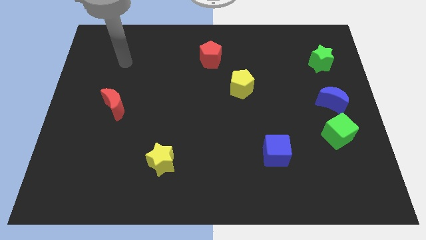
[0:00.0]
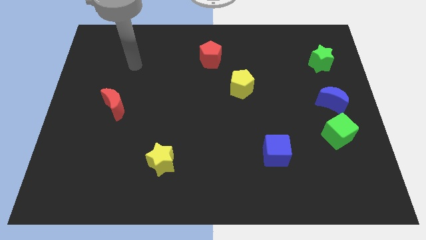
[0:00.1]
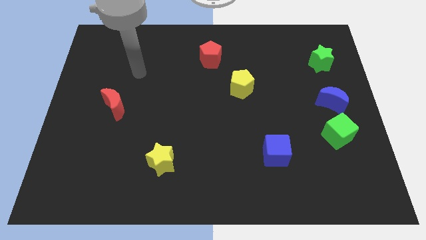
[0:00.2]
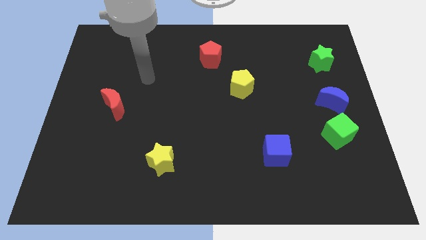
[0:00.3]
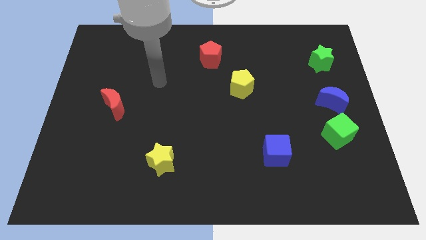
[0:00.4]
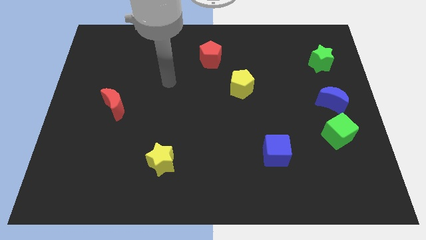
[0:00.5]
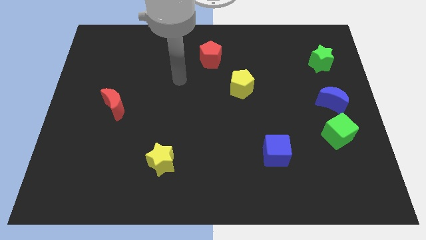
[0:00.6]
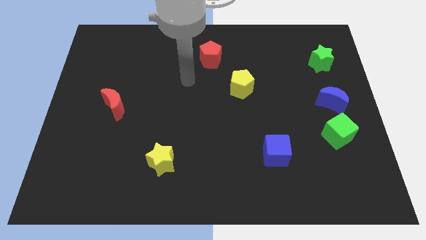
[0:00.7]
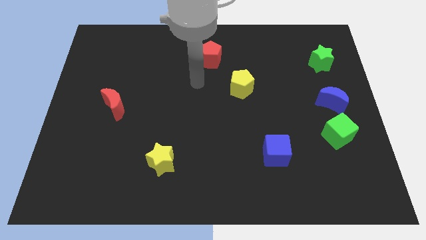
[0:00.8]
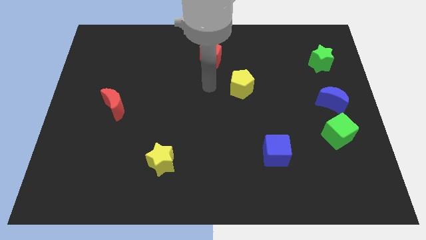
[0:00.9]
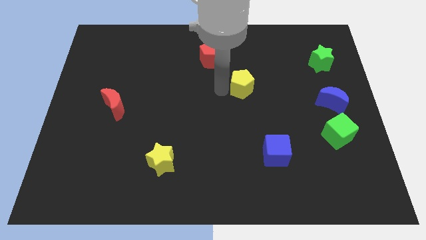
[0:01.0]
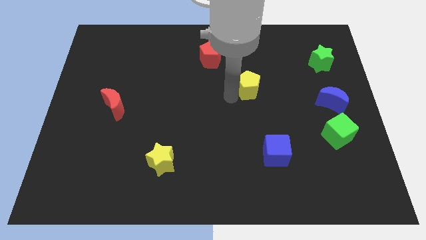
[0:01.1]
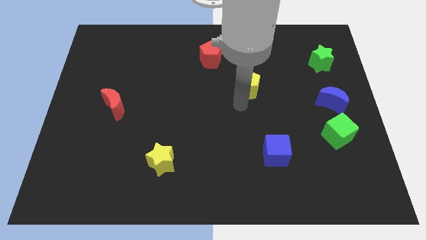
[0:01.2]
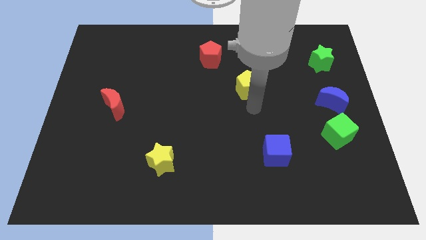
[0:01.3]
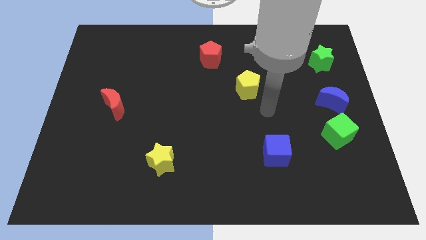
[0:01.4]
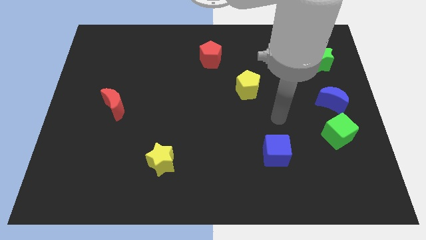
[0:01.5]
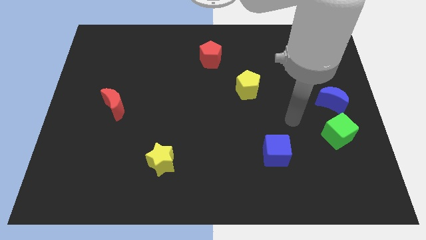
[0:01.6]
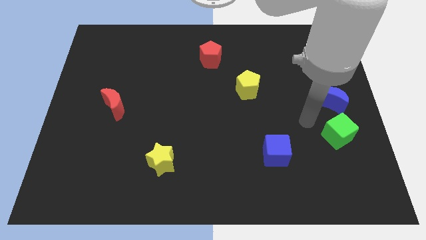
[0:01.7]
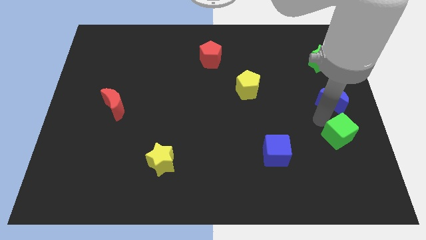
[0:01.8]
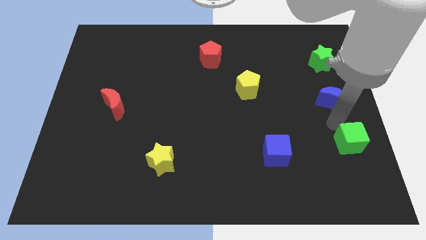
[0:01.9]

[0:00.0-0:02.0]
separate the blue moon from the green cube

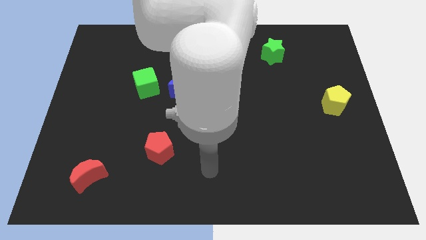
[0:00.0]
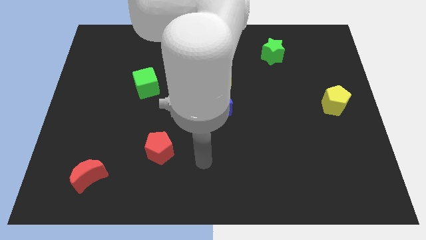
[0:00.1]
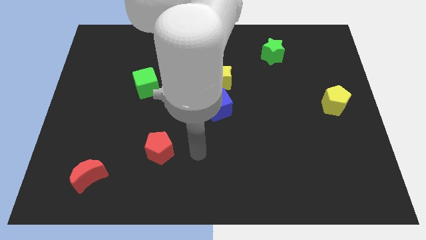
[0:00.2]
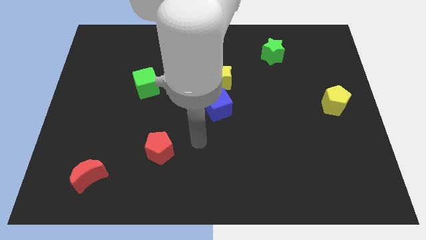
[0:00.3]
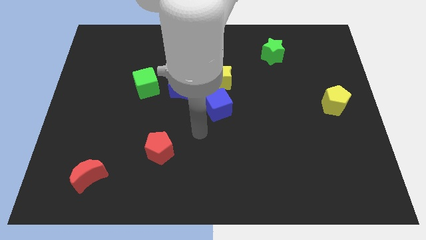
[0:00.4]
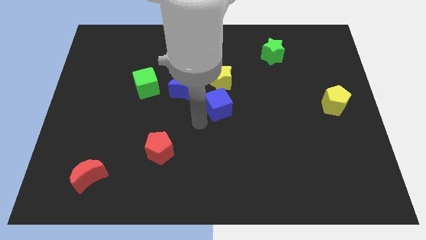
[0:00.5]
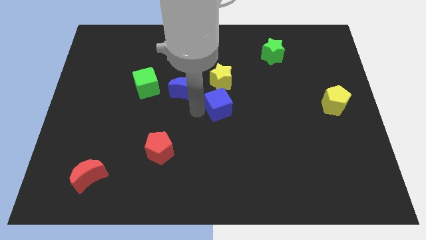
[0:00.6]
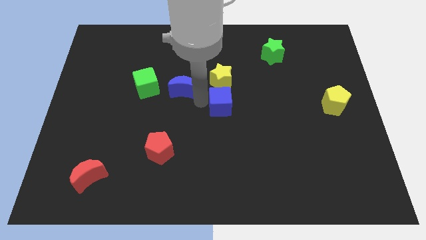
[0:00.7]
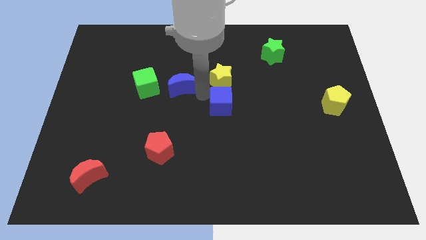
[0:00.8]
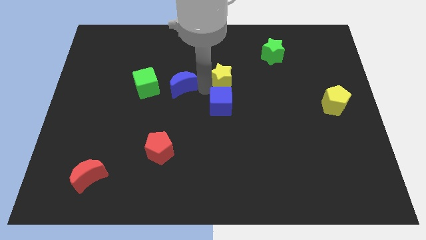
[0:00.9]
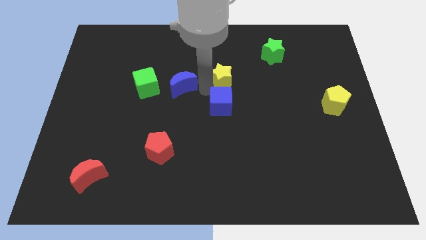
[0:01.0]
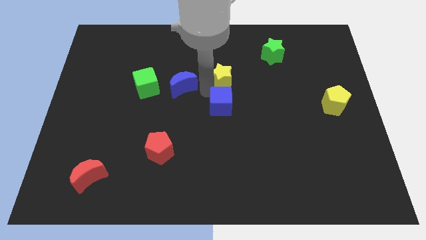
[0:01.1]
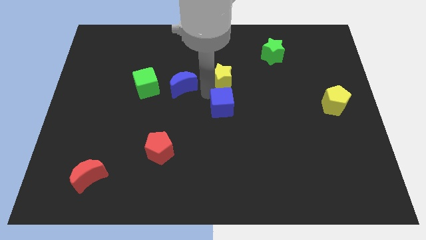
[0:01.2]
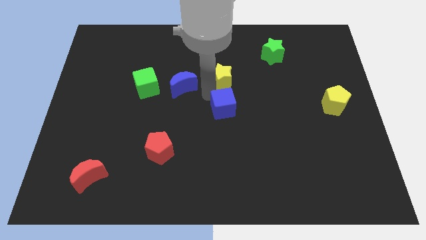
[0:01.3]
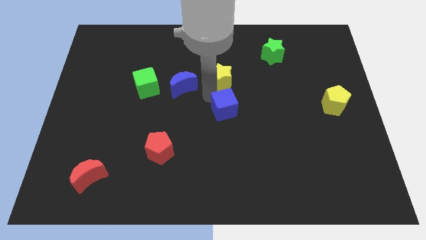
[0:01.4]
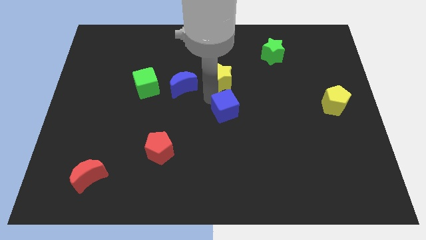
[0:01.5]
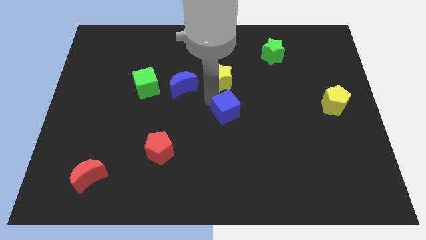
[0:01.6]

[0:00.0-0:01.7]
separate the blue cube from the yellow star and blue moon

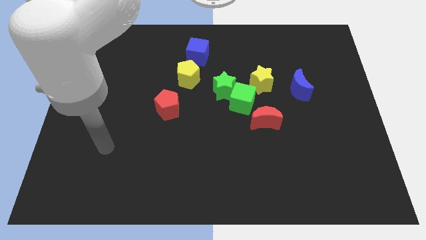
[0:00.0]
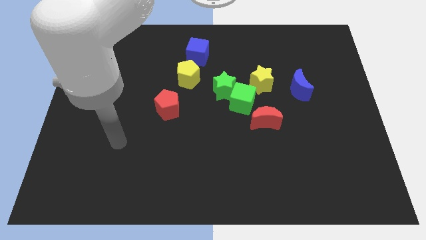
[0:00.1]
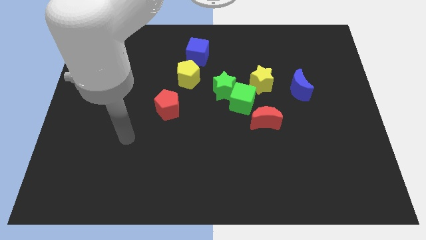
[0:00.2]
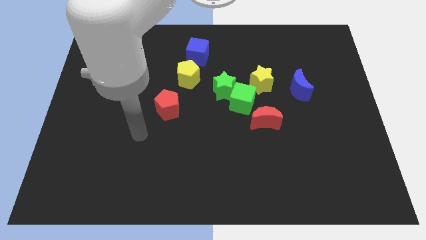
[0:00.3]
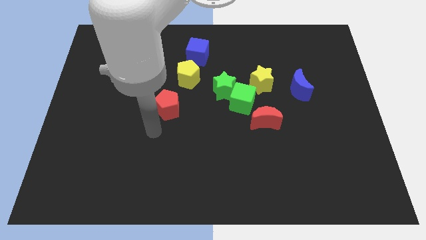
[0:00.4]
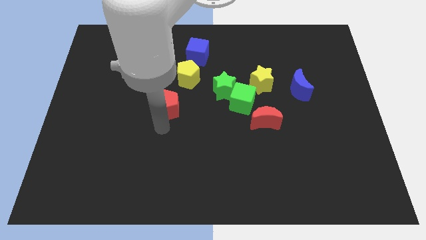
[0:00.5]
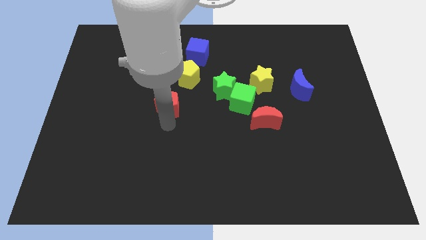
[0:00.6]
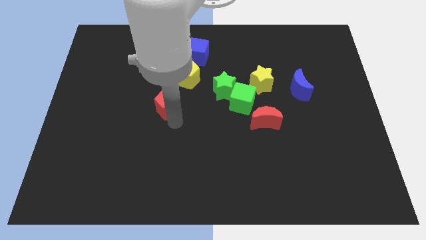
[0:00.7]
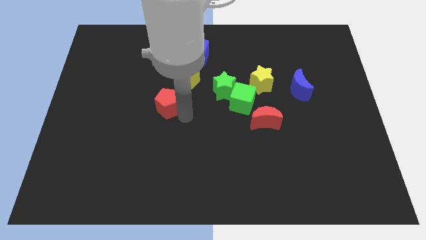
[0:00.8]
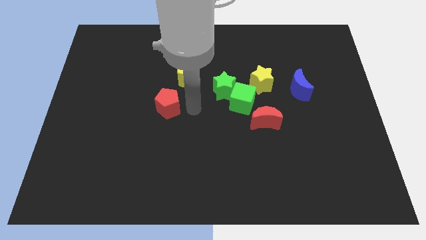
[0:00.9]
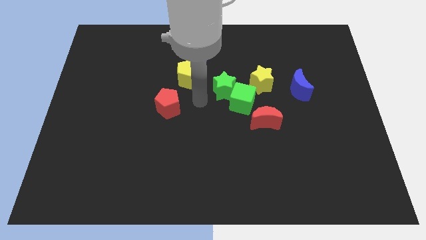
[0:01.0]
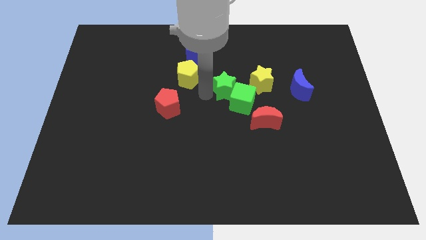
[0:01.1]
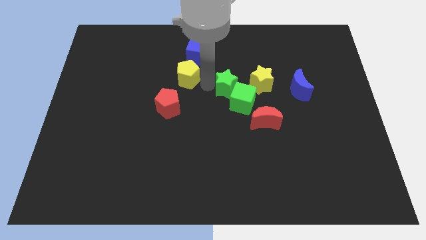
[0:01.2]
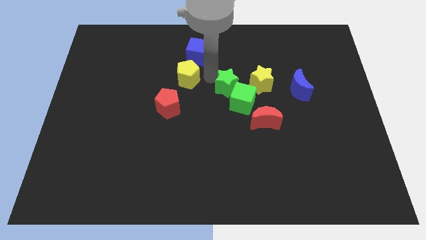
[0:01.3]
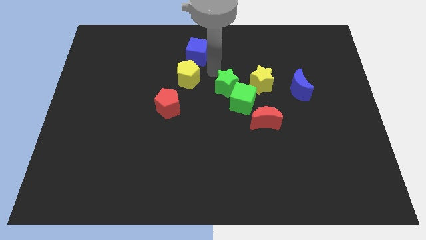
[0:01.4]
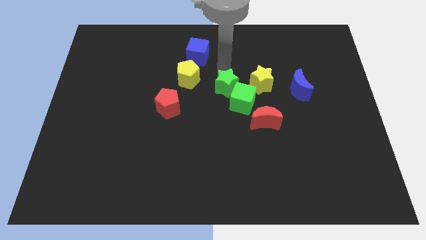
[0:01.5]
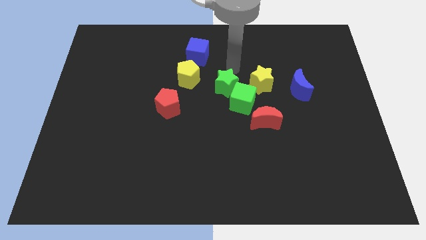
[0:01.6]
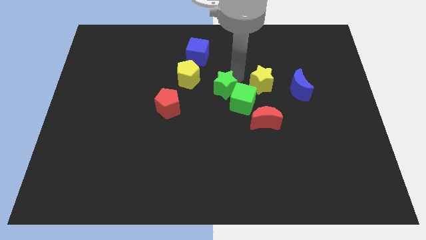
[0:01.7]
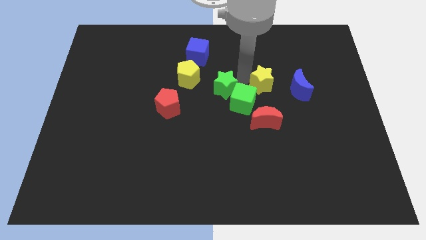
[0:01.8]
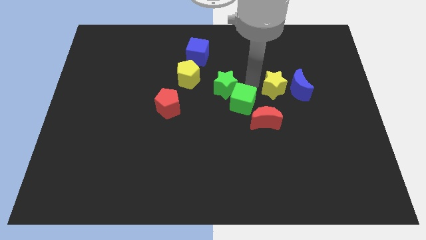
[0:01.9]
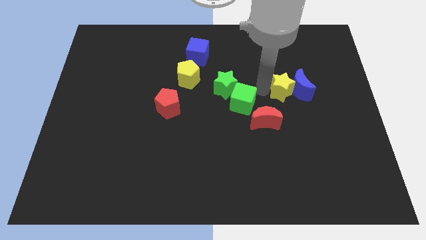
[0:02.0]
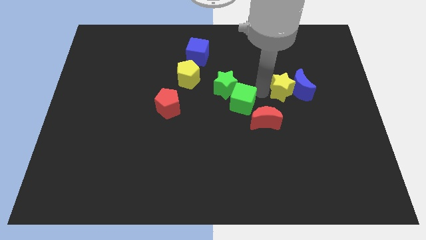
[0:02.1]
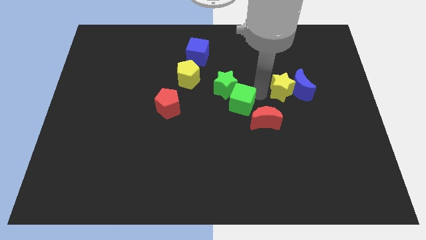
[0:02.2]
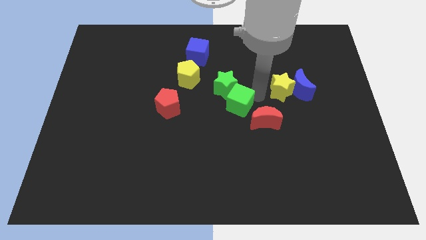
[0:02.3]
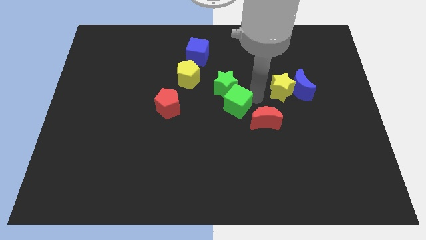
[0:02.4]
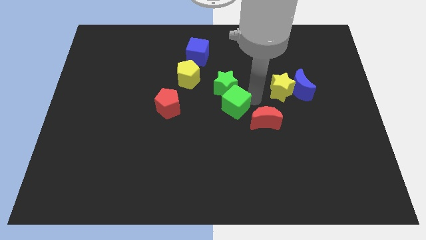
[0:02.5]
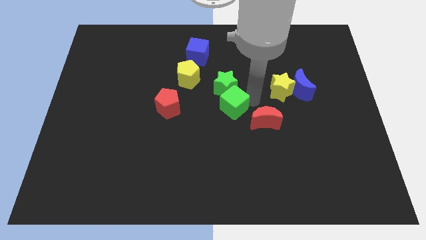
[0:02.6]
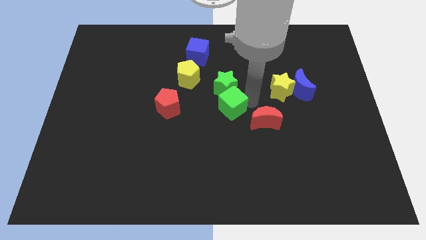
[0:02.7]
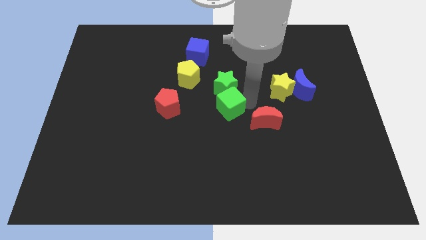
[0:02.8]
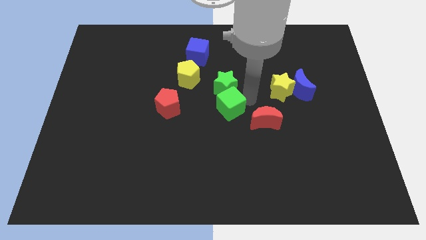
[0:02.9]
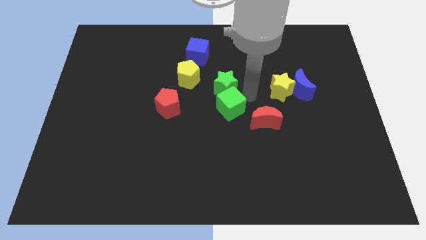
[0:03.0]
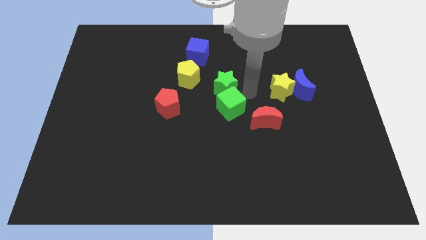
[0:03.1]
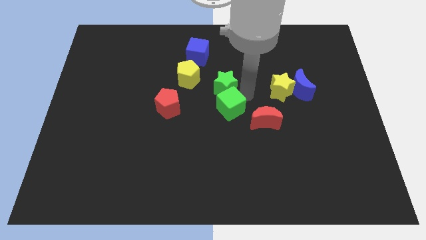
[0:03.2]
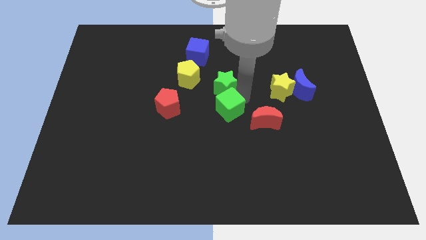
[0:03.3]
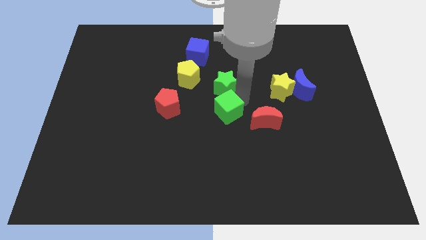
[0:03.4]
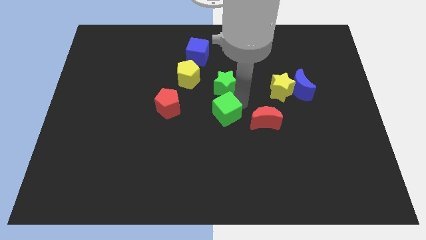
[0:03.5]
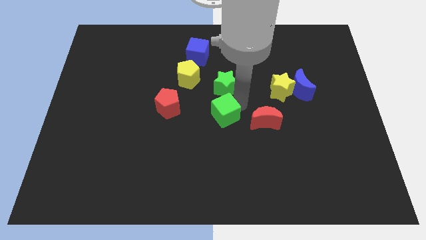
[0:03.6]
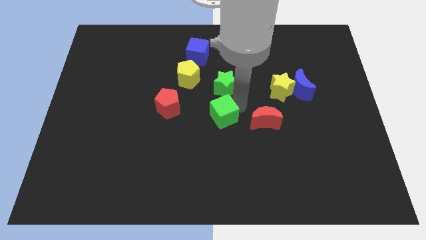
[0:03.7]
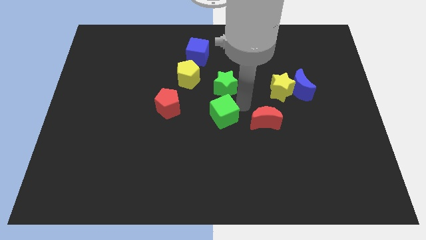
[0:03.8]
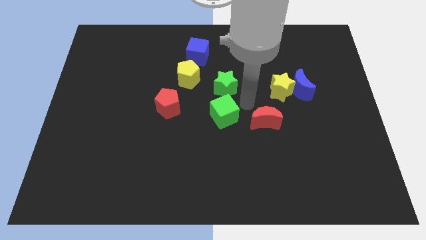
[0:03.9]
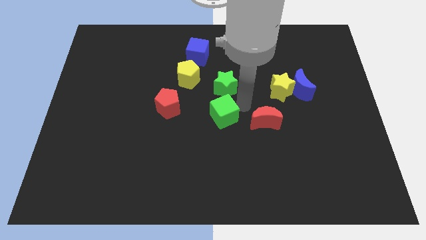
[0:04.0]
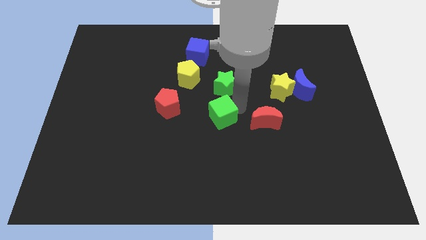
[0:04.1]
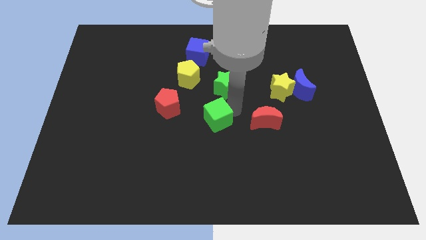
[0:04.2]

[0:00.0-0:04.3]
separate the green cube from the group of blocks

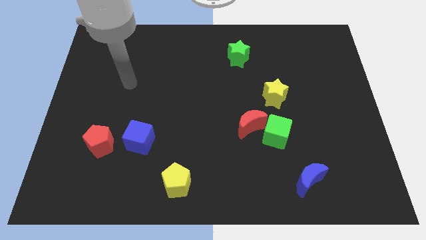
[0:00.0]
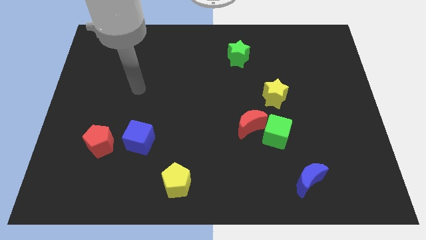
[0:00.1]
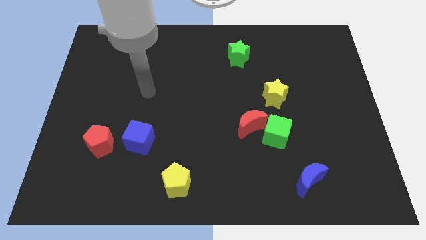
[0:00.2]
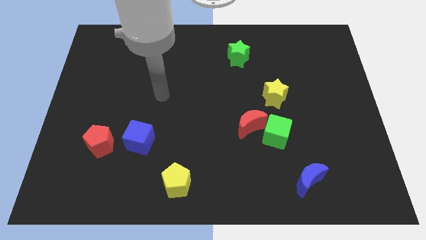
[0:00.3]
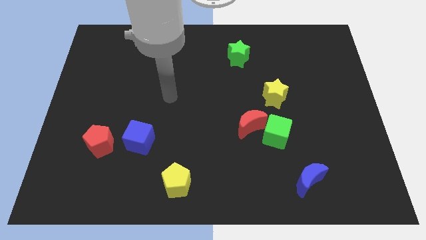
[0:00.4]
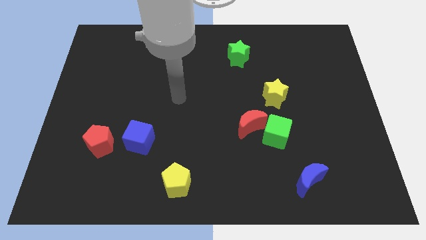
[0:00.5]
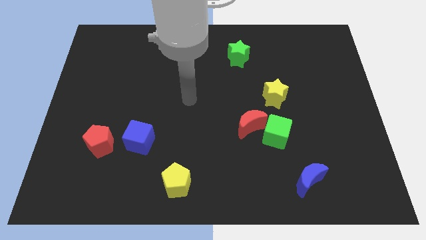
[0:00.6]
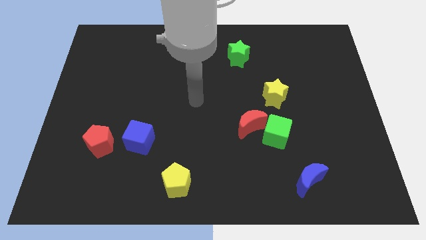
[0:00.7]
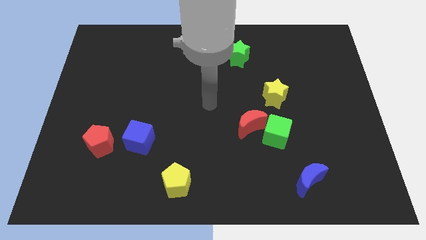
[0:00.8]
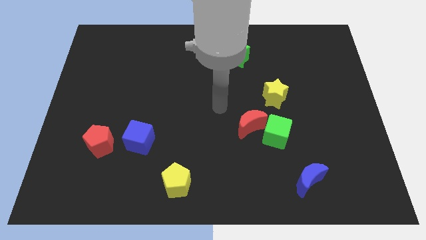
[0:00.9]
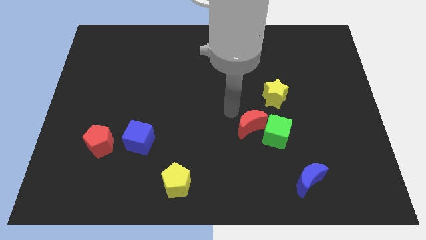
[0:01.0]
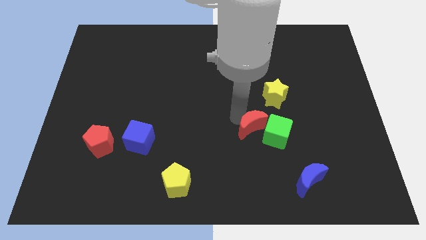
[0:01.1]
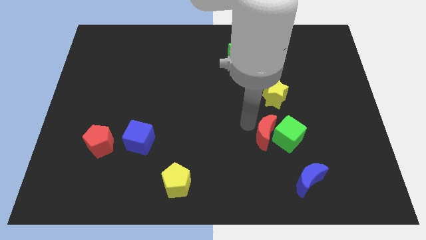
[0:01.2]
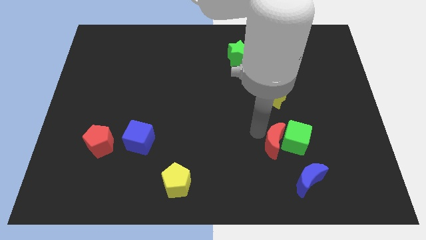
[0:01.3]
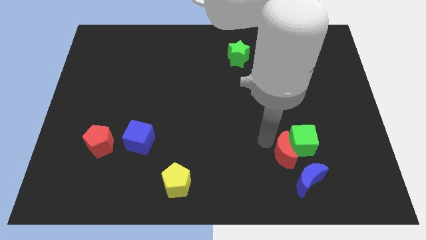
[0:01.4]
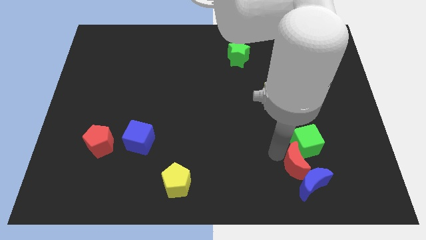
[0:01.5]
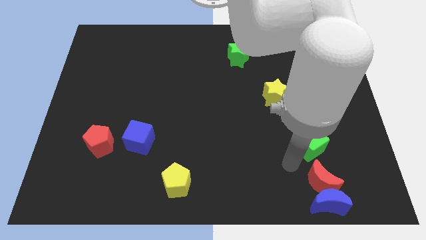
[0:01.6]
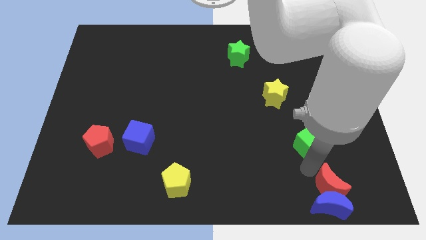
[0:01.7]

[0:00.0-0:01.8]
pull the green cube apart from the red moon
